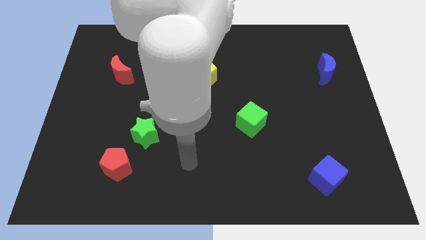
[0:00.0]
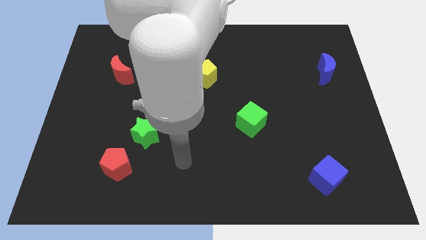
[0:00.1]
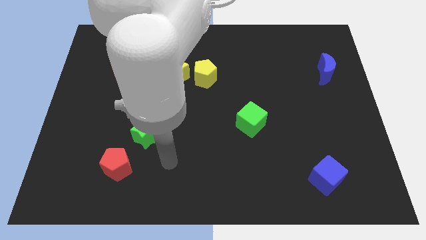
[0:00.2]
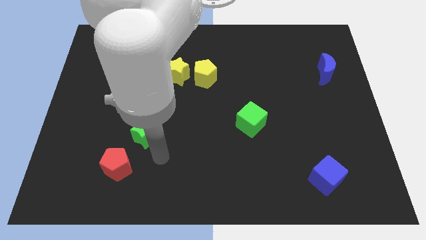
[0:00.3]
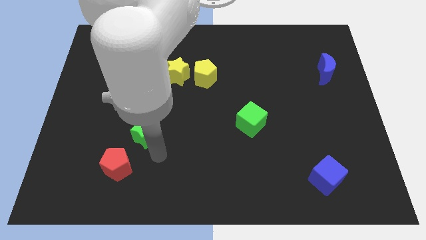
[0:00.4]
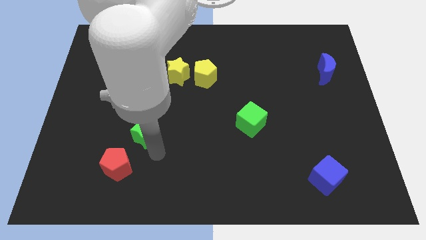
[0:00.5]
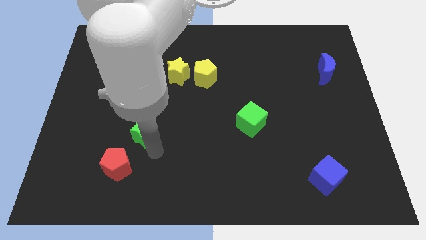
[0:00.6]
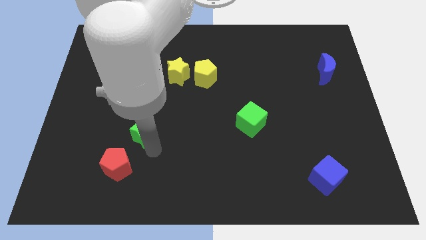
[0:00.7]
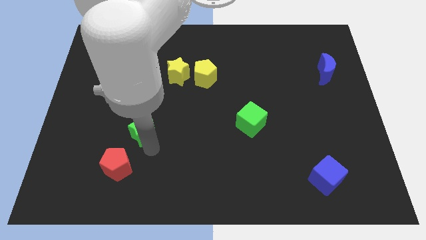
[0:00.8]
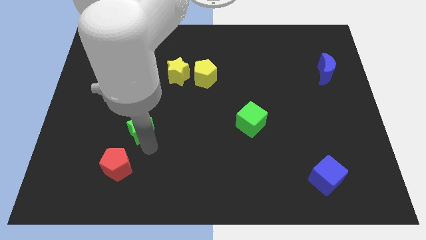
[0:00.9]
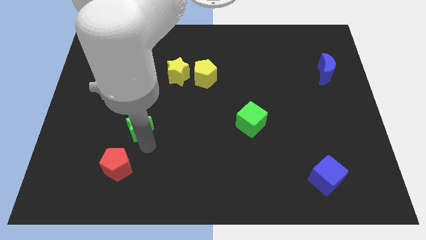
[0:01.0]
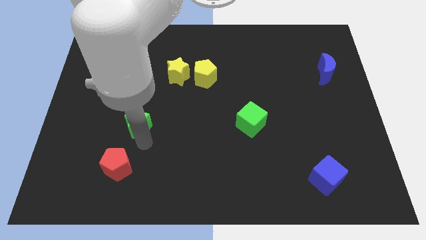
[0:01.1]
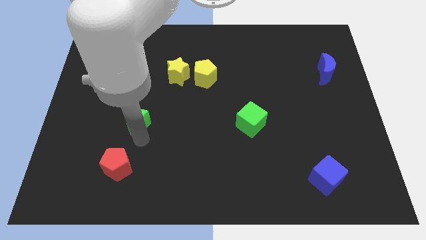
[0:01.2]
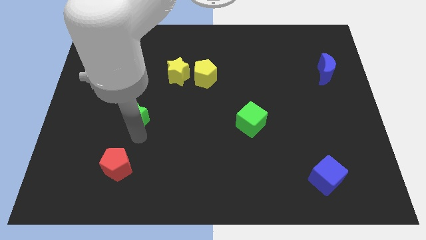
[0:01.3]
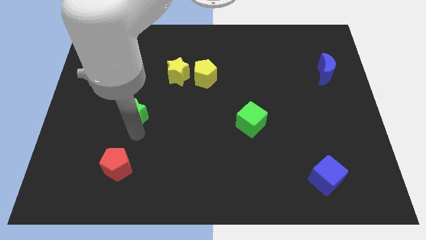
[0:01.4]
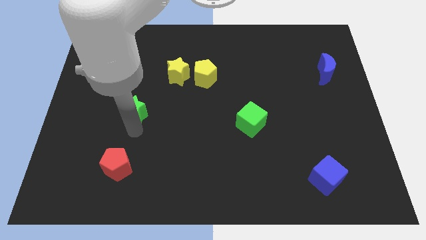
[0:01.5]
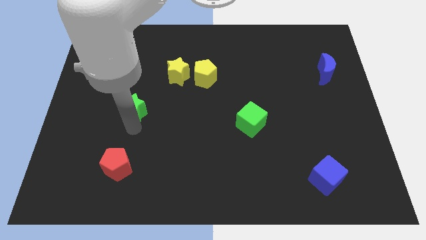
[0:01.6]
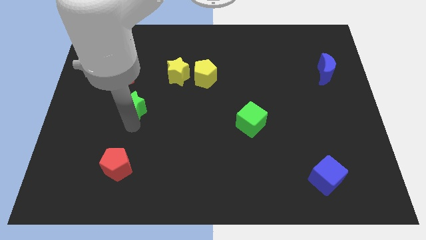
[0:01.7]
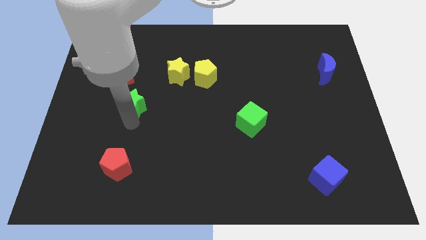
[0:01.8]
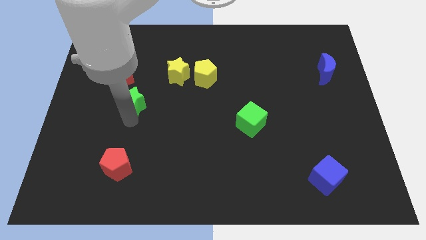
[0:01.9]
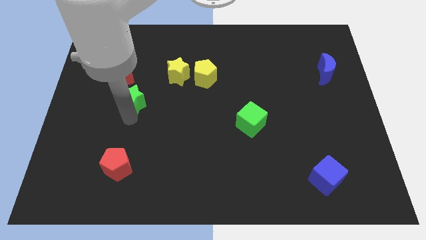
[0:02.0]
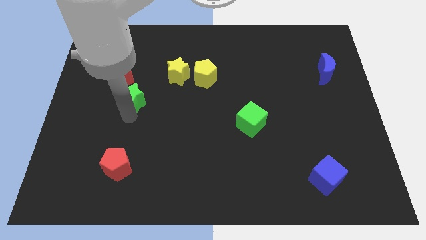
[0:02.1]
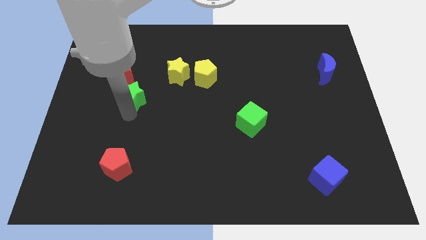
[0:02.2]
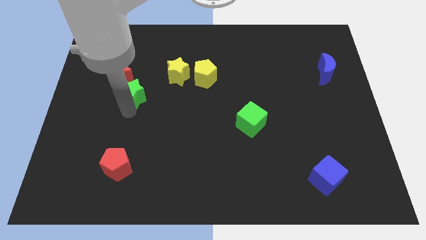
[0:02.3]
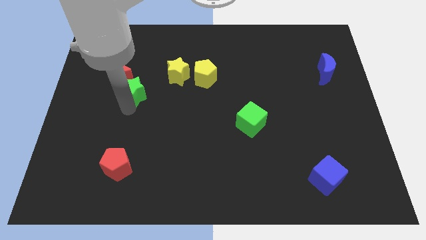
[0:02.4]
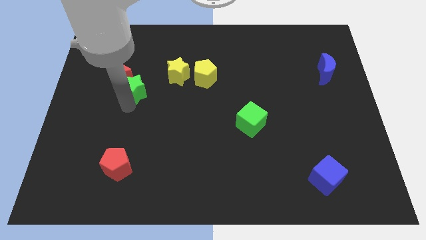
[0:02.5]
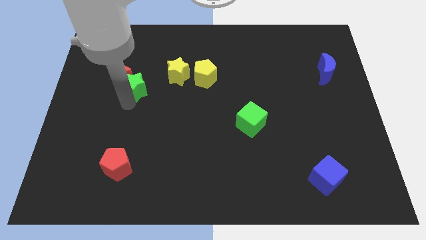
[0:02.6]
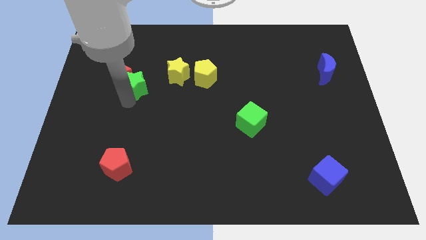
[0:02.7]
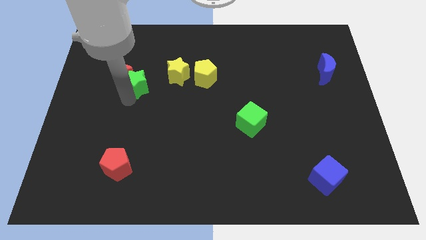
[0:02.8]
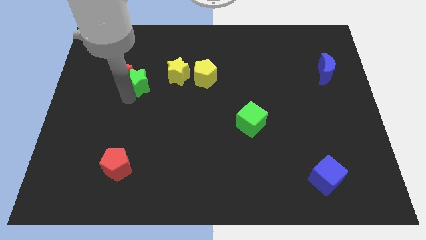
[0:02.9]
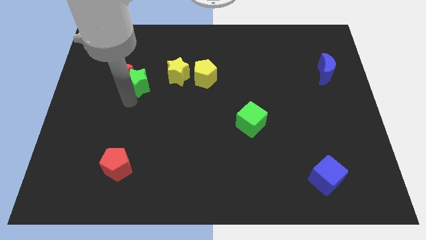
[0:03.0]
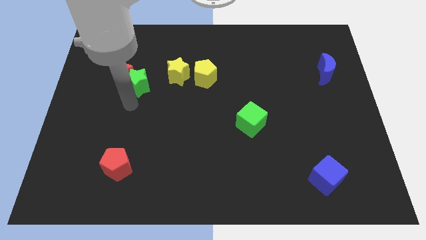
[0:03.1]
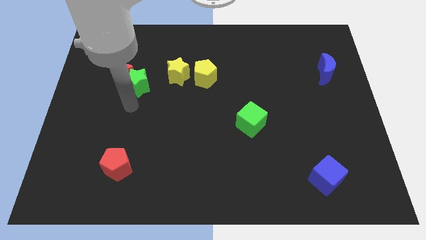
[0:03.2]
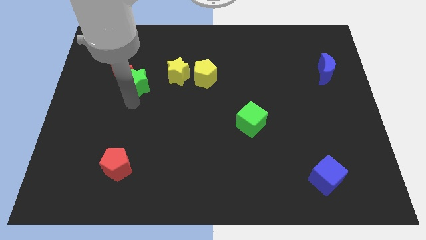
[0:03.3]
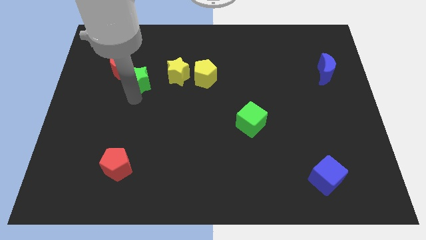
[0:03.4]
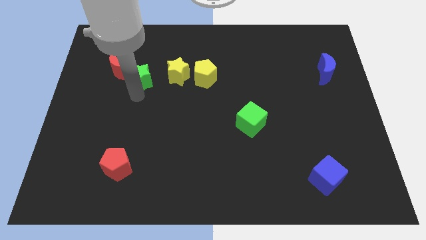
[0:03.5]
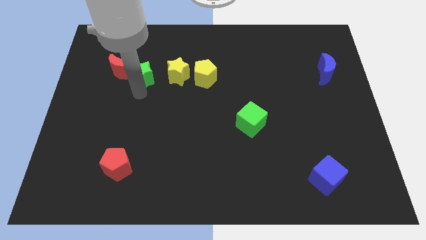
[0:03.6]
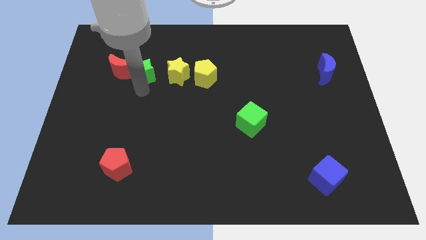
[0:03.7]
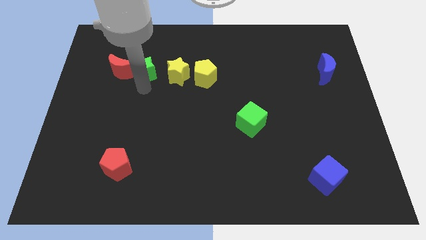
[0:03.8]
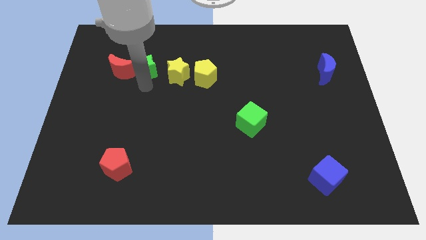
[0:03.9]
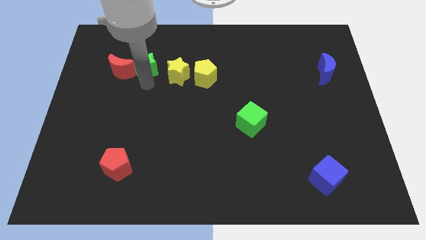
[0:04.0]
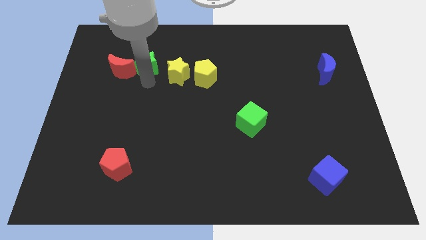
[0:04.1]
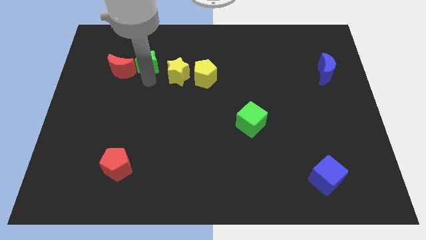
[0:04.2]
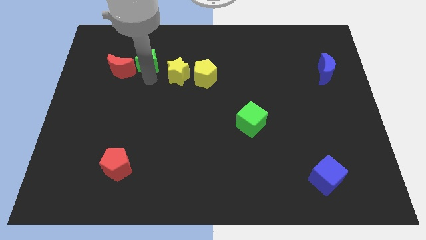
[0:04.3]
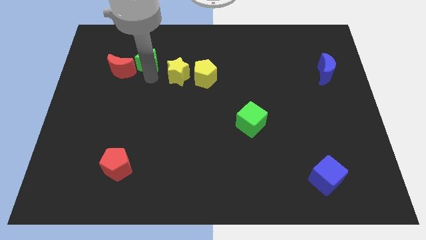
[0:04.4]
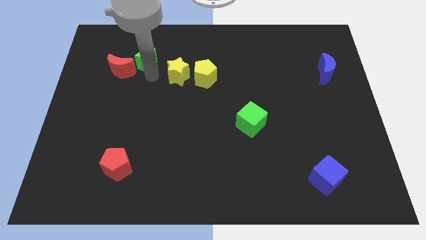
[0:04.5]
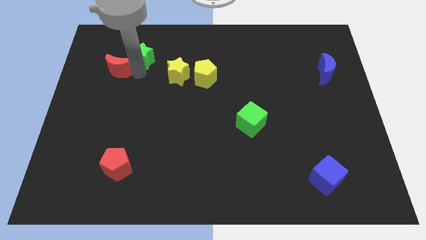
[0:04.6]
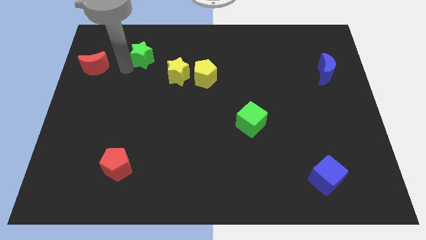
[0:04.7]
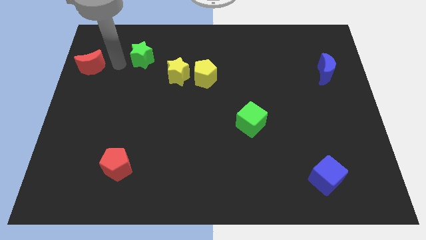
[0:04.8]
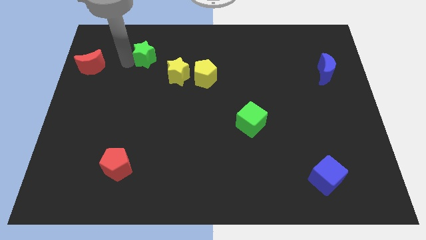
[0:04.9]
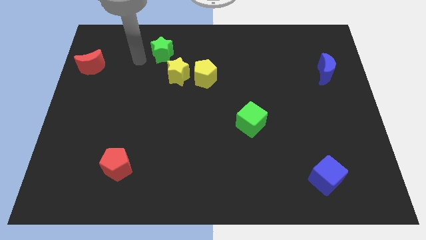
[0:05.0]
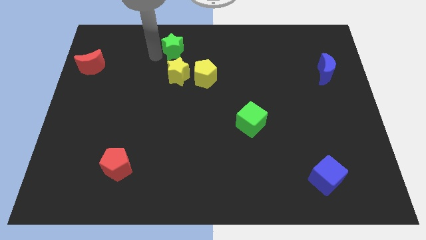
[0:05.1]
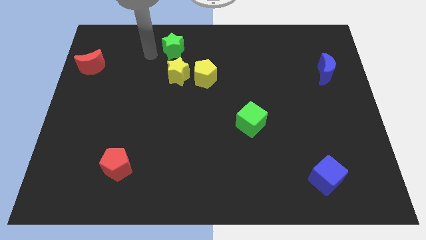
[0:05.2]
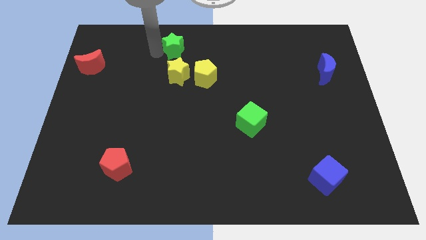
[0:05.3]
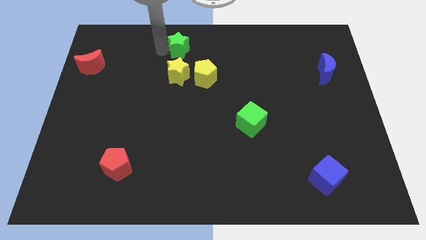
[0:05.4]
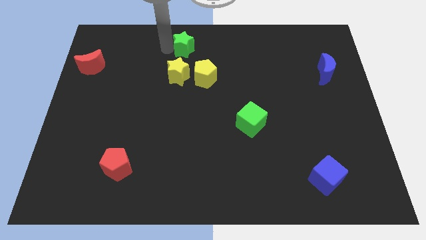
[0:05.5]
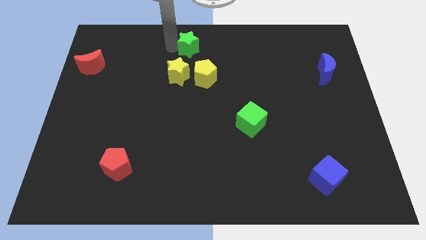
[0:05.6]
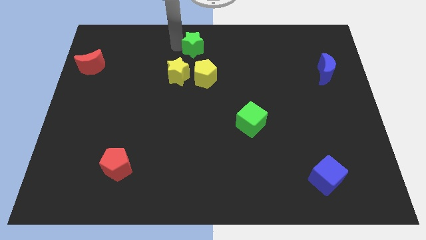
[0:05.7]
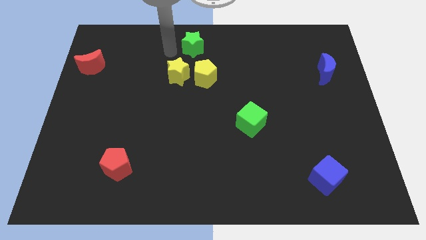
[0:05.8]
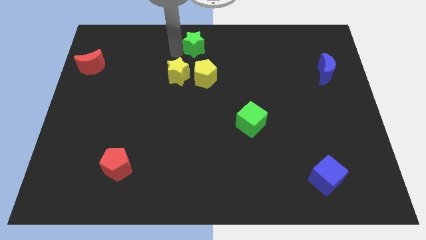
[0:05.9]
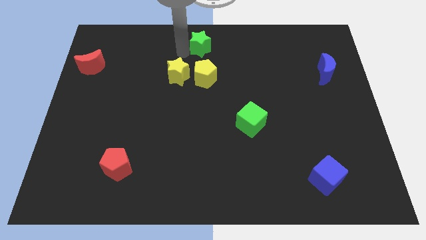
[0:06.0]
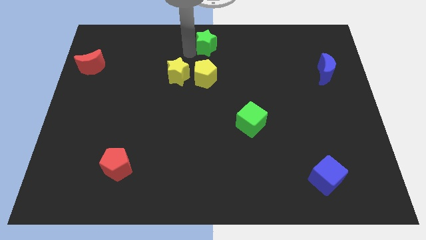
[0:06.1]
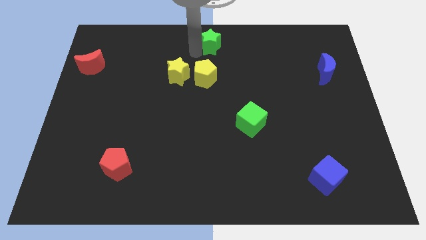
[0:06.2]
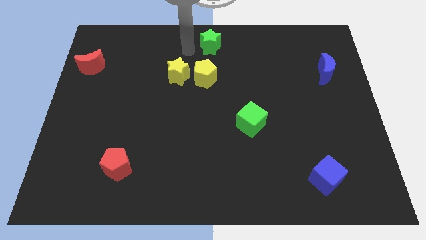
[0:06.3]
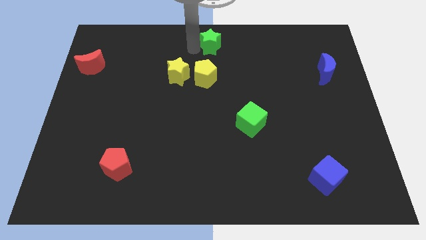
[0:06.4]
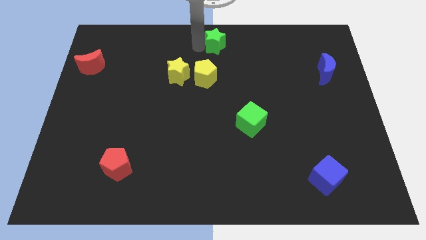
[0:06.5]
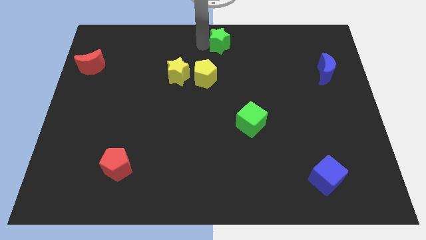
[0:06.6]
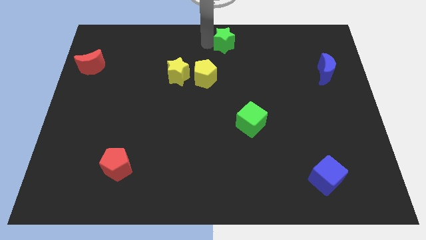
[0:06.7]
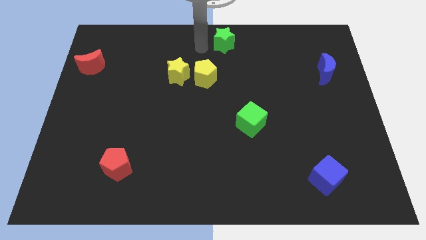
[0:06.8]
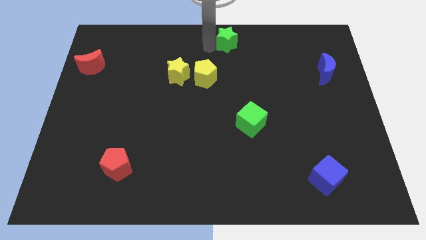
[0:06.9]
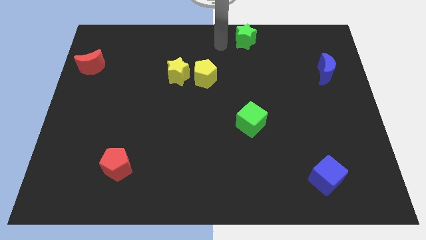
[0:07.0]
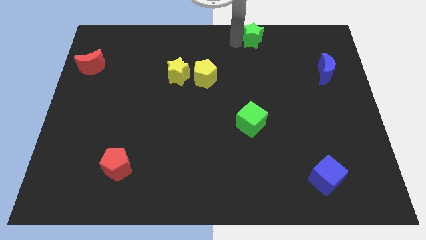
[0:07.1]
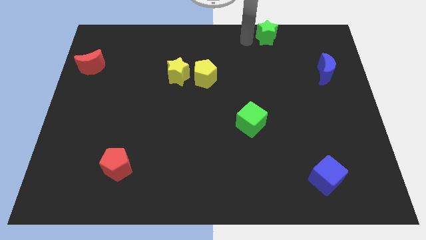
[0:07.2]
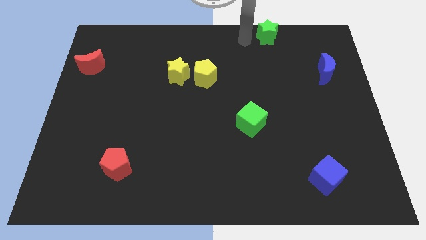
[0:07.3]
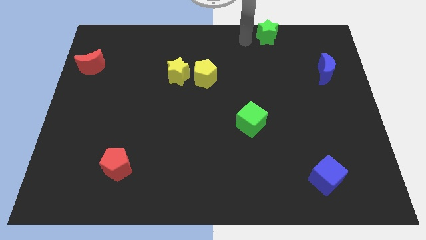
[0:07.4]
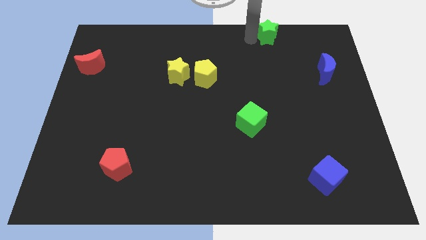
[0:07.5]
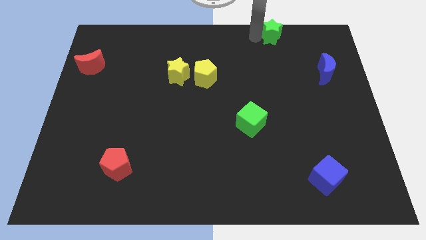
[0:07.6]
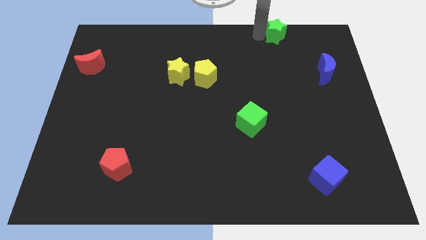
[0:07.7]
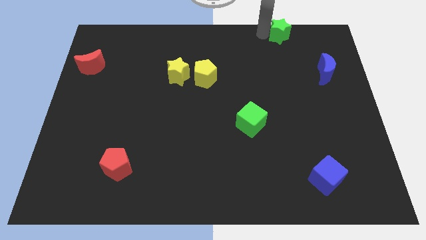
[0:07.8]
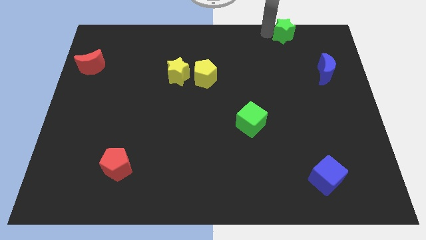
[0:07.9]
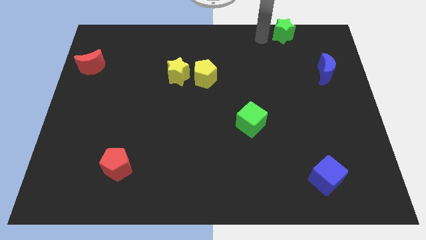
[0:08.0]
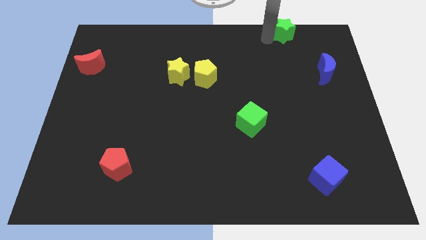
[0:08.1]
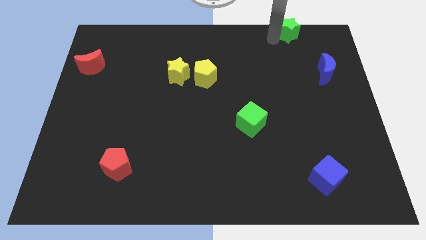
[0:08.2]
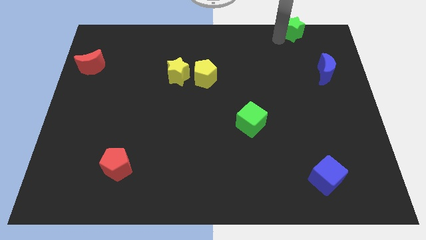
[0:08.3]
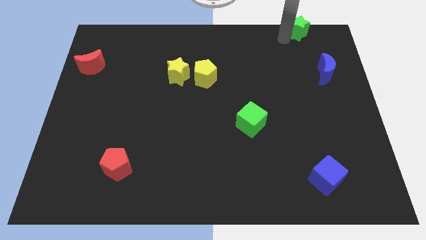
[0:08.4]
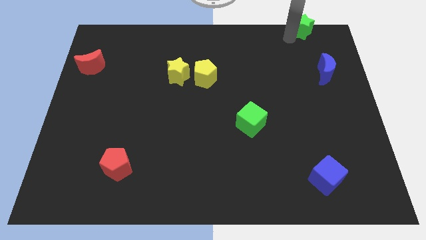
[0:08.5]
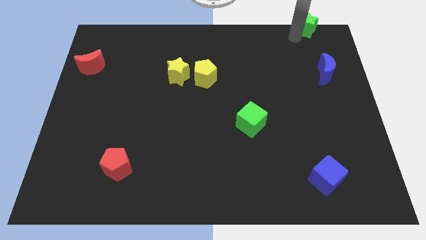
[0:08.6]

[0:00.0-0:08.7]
push the green star to the top right corner
